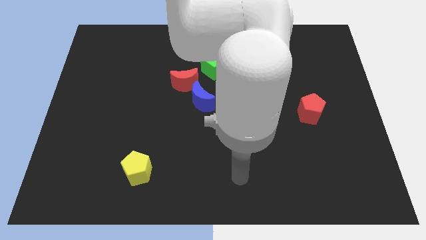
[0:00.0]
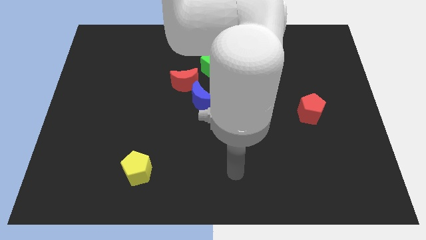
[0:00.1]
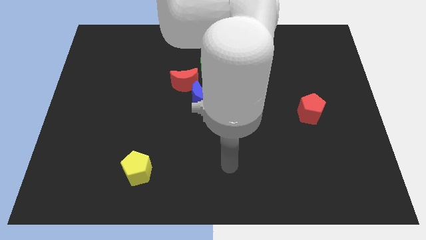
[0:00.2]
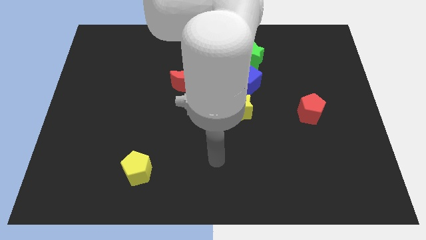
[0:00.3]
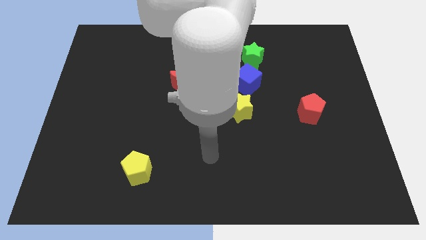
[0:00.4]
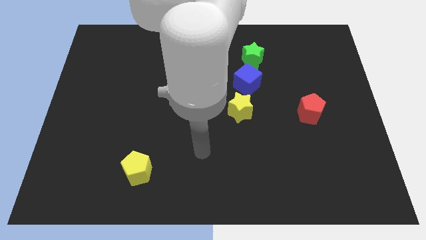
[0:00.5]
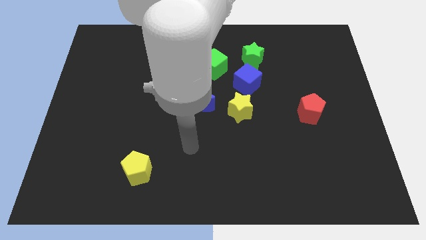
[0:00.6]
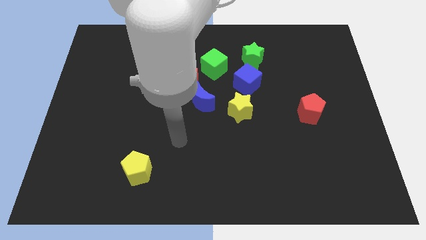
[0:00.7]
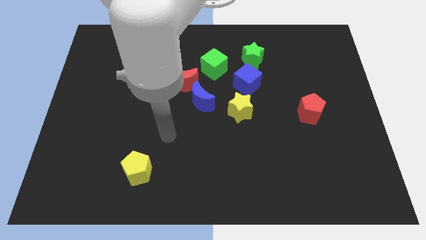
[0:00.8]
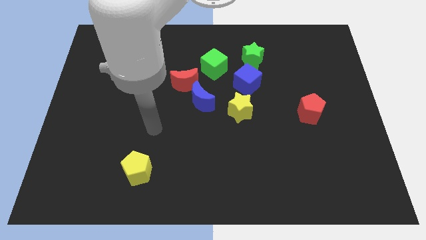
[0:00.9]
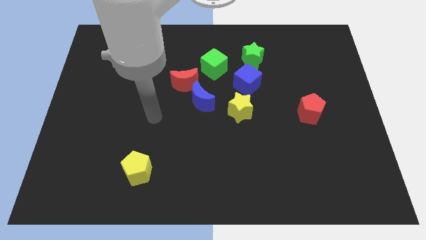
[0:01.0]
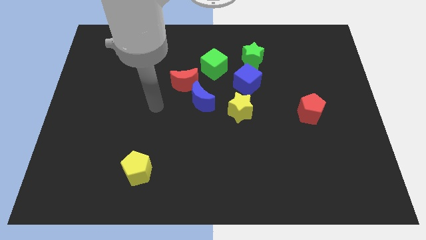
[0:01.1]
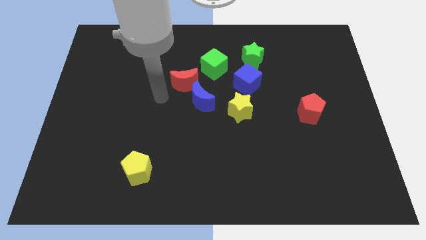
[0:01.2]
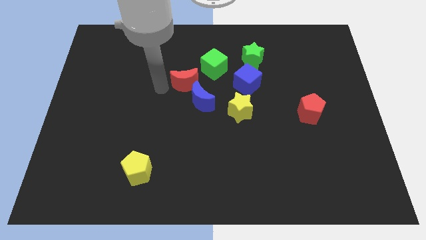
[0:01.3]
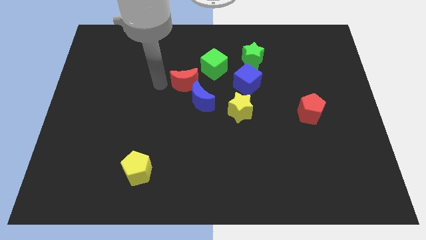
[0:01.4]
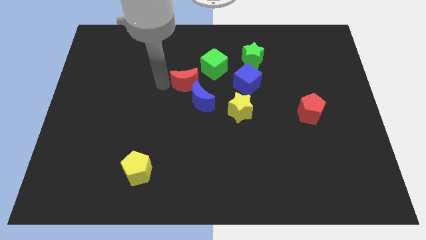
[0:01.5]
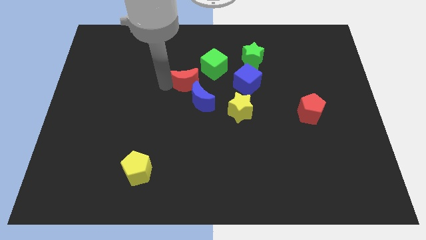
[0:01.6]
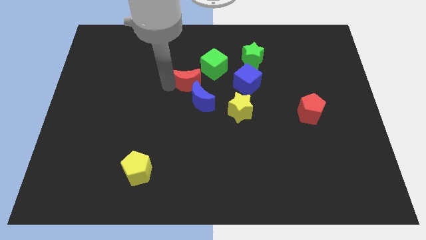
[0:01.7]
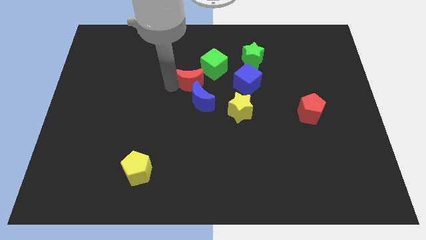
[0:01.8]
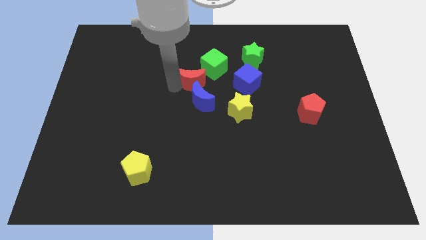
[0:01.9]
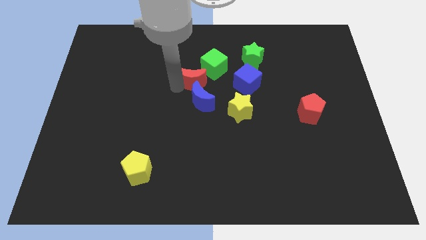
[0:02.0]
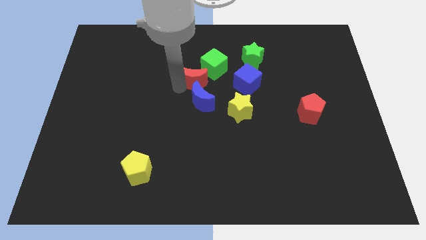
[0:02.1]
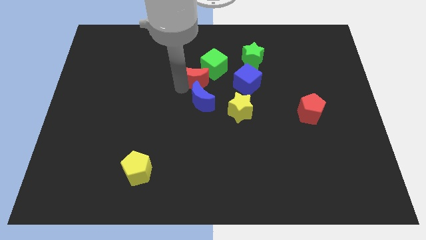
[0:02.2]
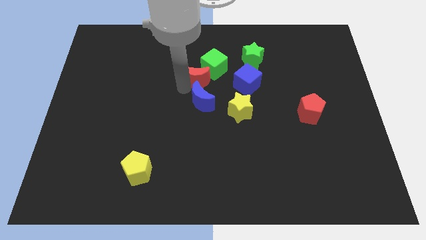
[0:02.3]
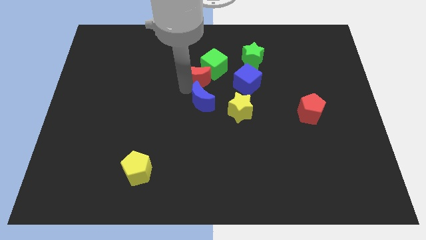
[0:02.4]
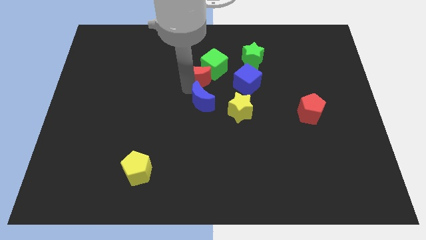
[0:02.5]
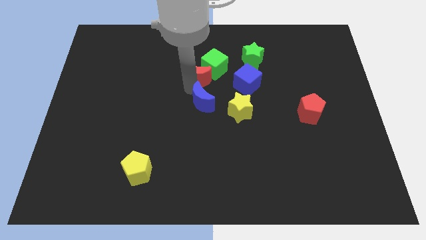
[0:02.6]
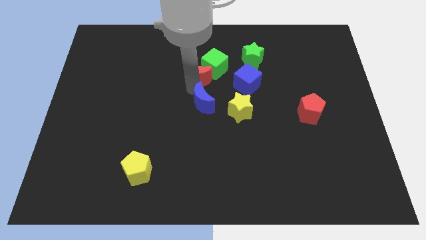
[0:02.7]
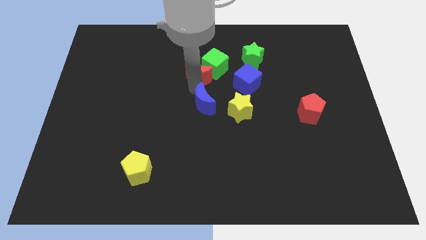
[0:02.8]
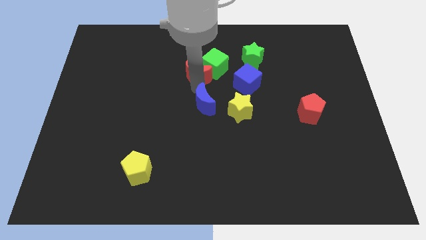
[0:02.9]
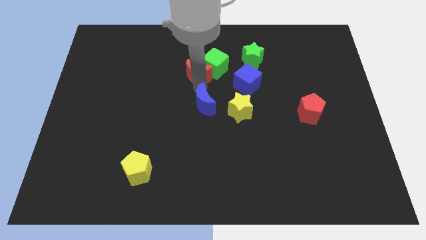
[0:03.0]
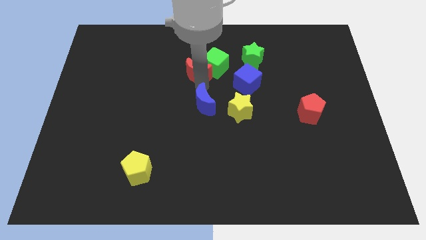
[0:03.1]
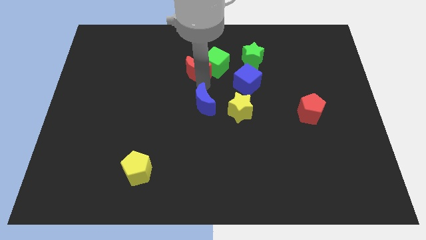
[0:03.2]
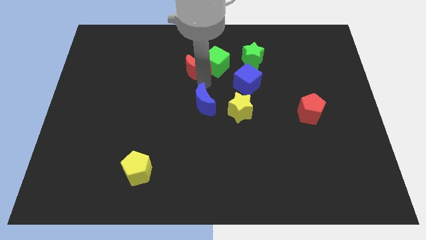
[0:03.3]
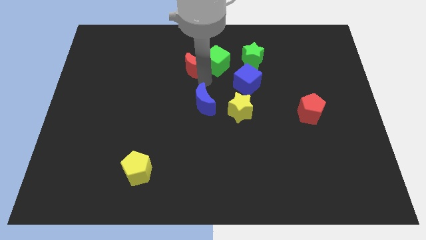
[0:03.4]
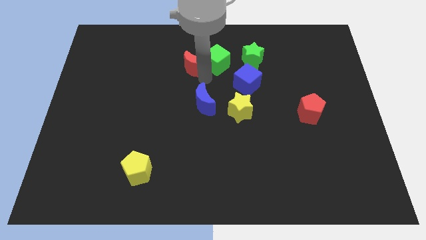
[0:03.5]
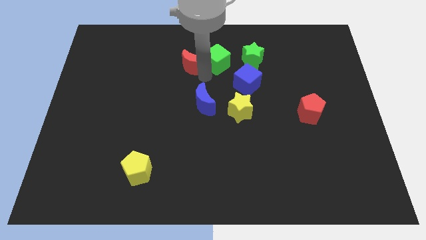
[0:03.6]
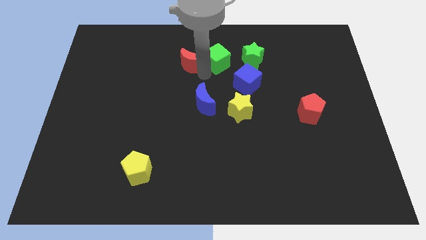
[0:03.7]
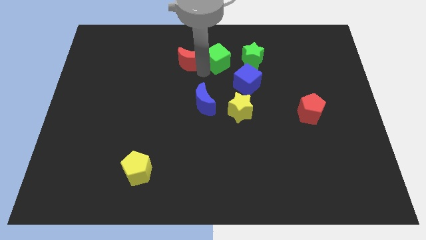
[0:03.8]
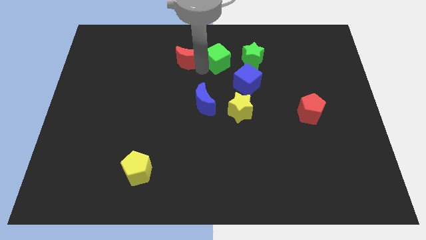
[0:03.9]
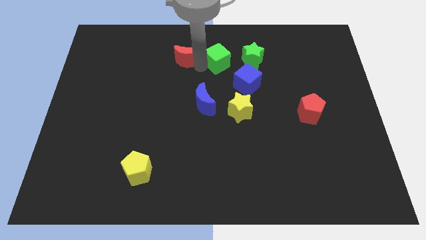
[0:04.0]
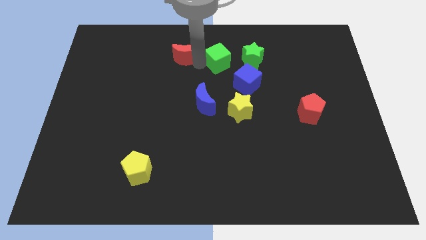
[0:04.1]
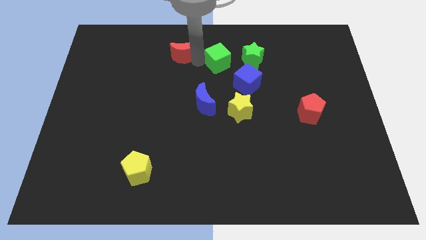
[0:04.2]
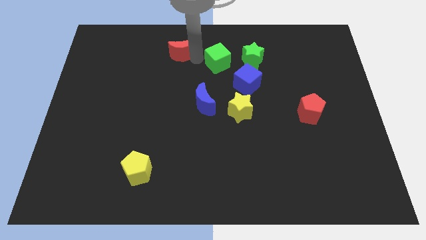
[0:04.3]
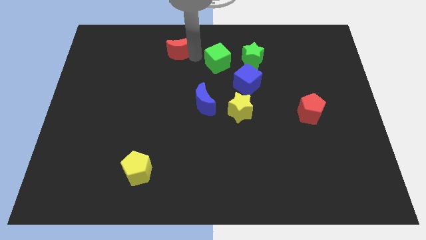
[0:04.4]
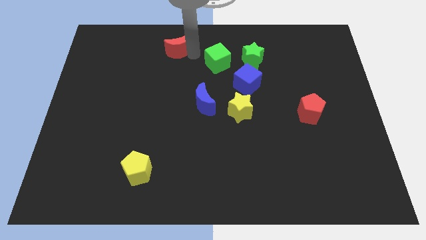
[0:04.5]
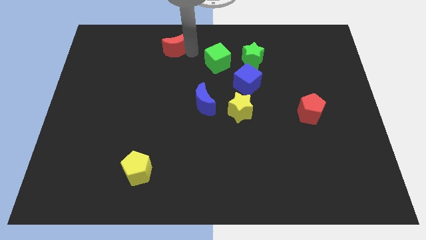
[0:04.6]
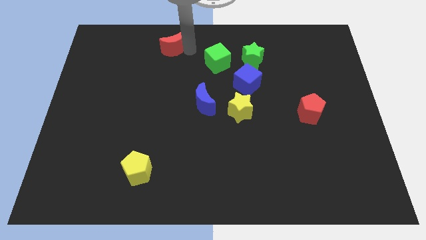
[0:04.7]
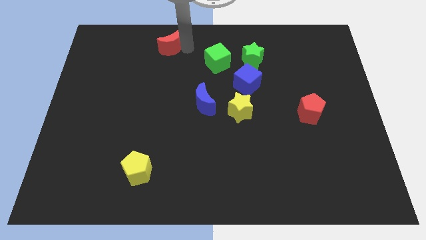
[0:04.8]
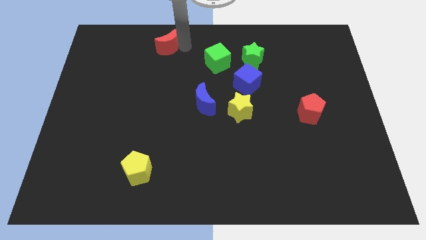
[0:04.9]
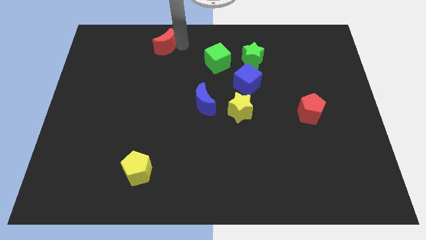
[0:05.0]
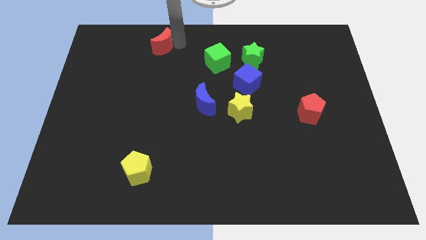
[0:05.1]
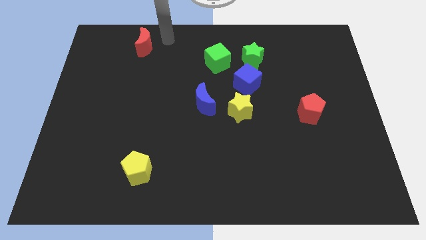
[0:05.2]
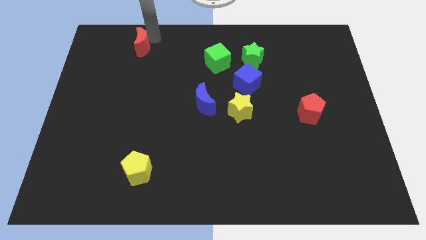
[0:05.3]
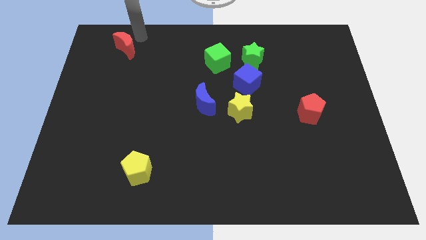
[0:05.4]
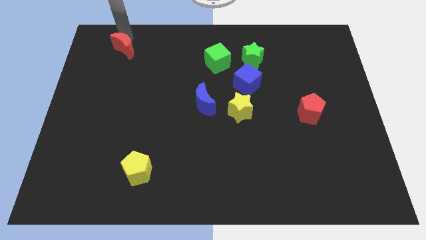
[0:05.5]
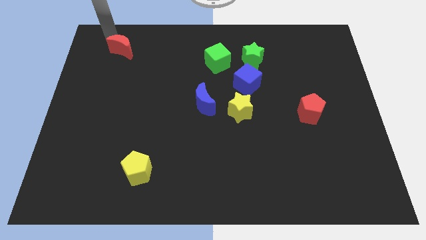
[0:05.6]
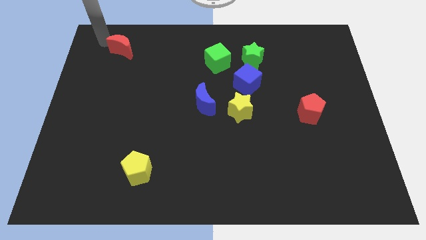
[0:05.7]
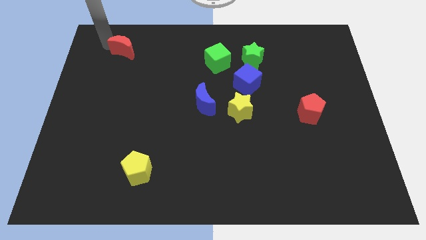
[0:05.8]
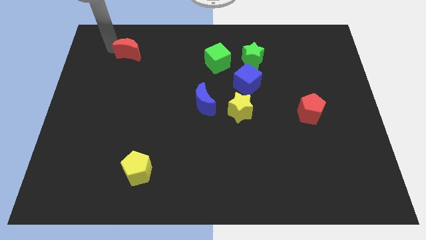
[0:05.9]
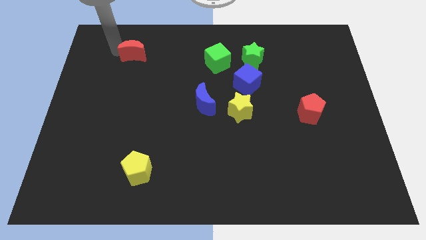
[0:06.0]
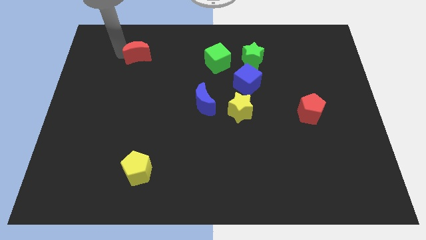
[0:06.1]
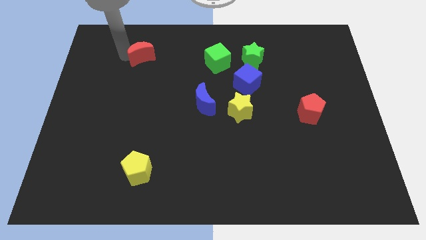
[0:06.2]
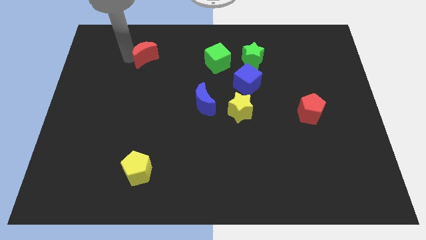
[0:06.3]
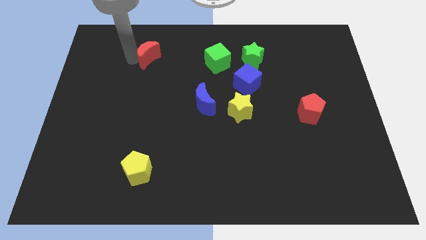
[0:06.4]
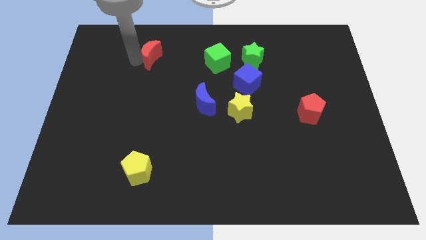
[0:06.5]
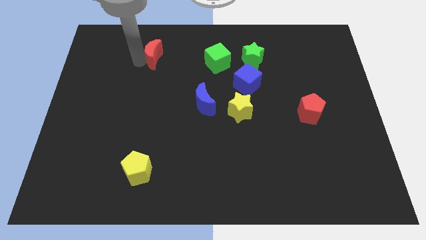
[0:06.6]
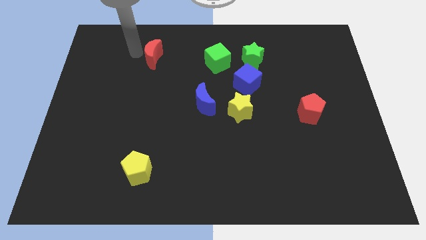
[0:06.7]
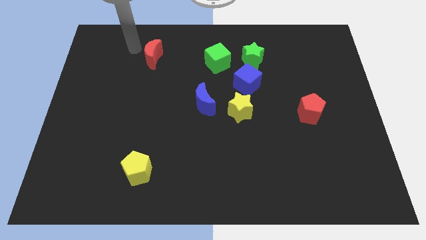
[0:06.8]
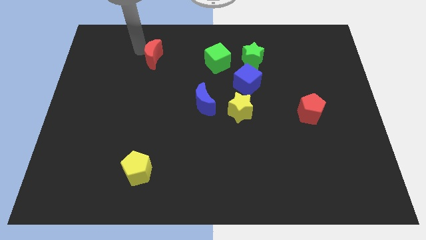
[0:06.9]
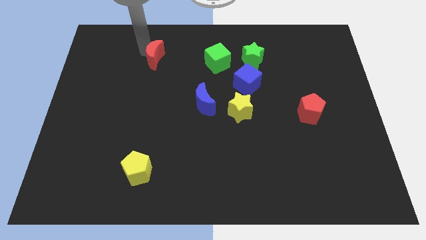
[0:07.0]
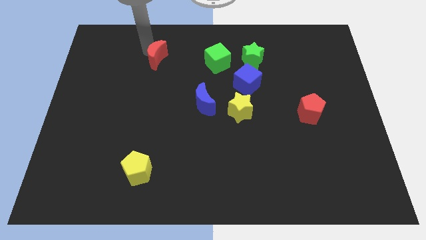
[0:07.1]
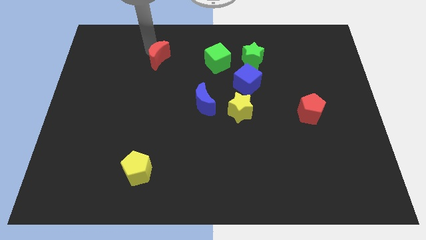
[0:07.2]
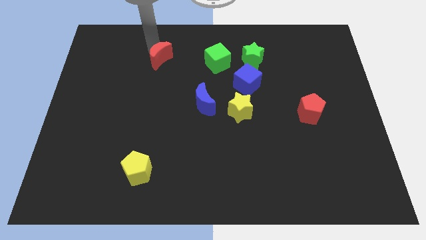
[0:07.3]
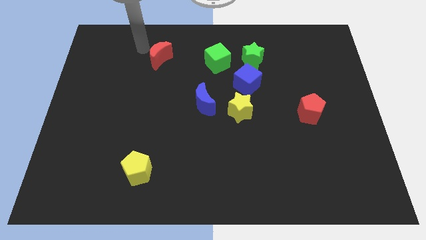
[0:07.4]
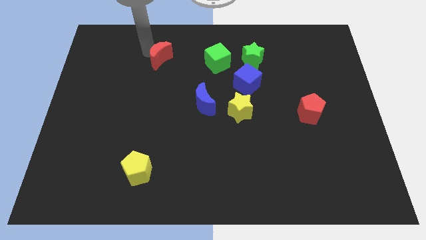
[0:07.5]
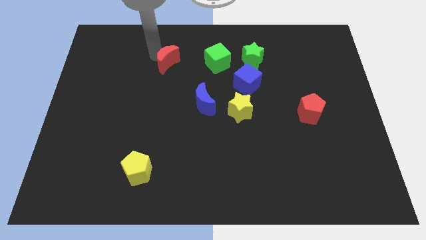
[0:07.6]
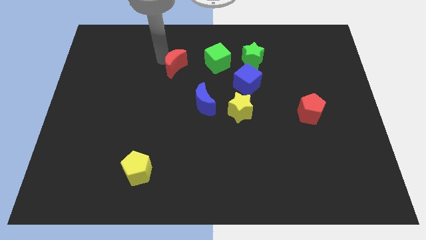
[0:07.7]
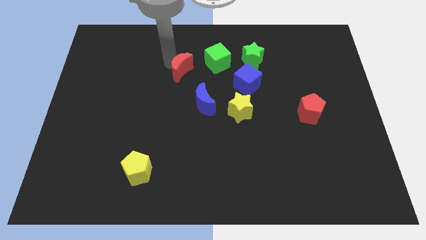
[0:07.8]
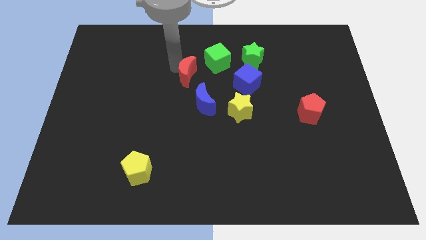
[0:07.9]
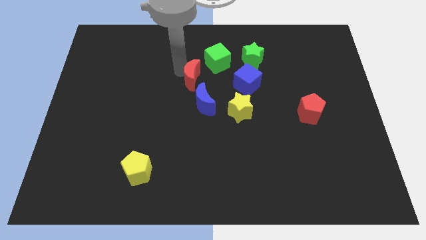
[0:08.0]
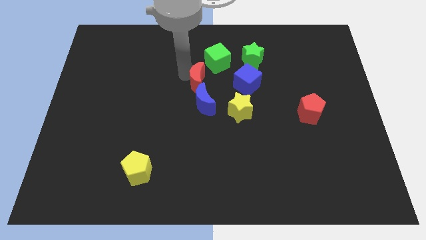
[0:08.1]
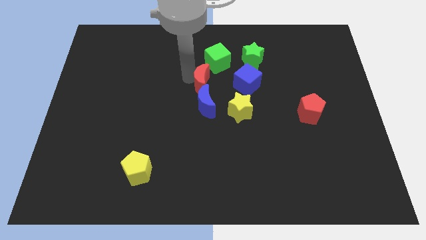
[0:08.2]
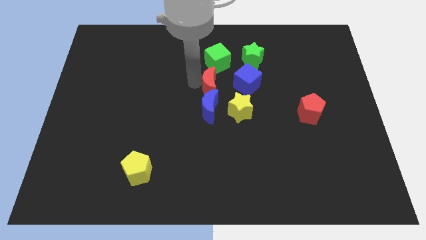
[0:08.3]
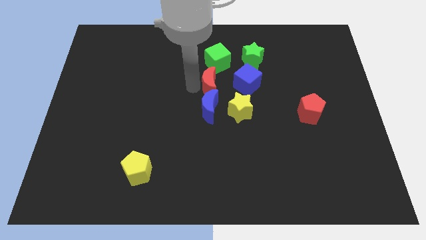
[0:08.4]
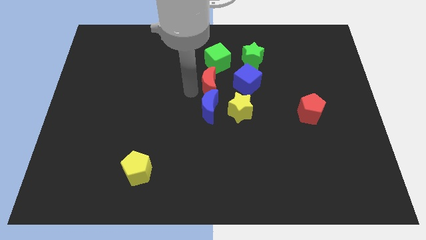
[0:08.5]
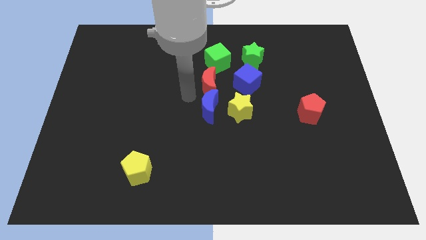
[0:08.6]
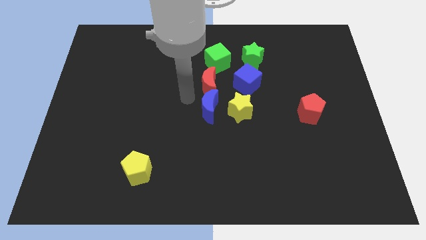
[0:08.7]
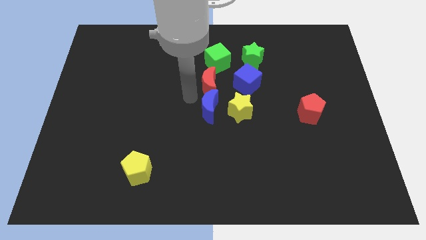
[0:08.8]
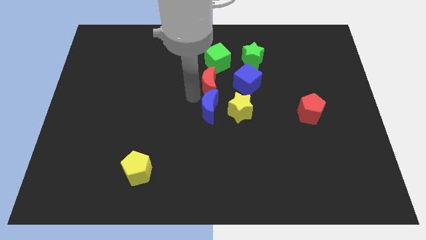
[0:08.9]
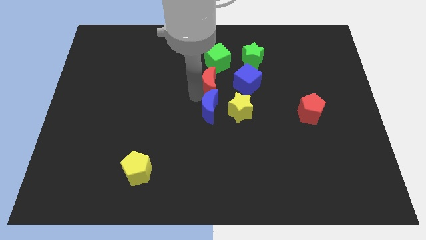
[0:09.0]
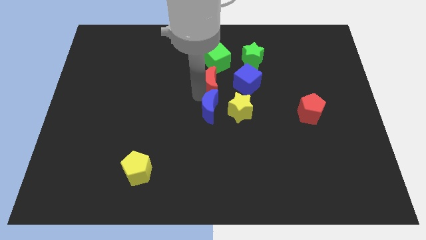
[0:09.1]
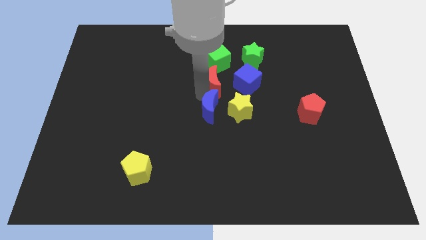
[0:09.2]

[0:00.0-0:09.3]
slightly push the red moon to the right
